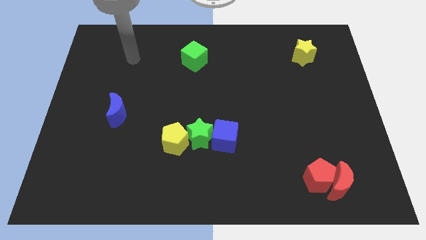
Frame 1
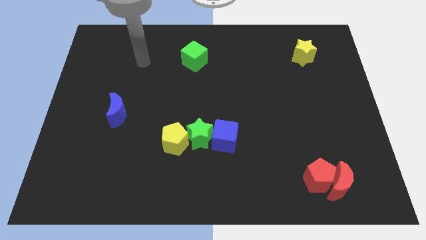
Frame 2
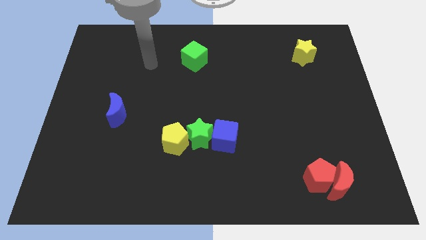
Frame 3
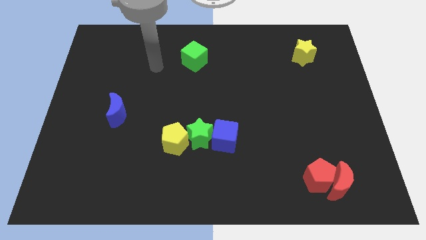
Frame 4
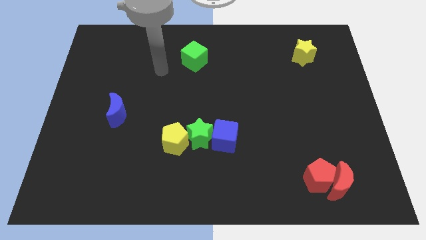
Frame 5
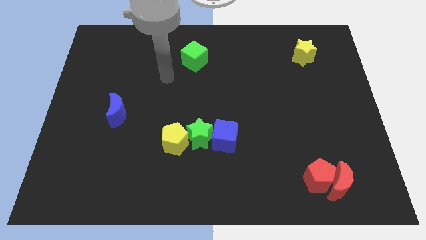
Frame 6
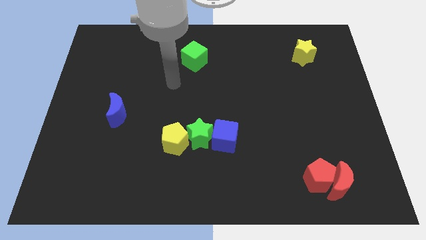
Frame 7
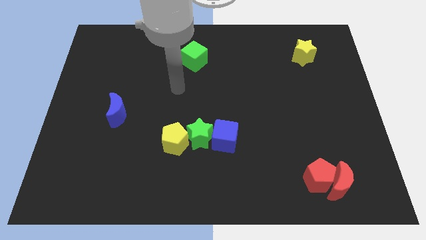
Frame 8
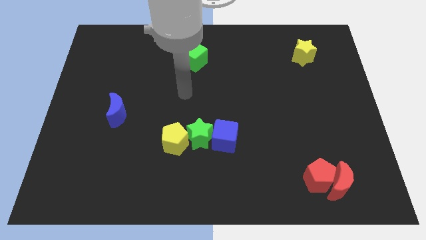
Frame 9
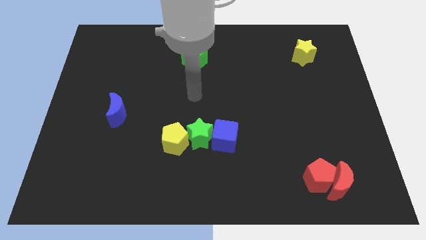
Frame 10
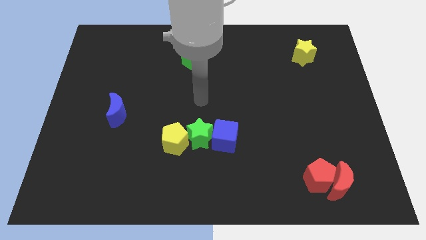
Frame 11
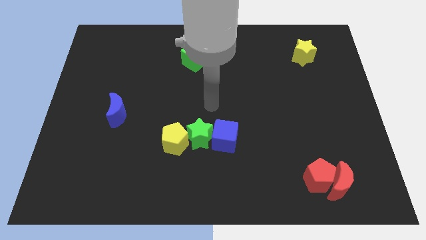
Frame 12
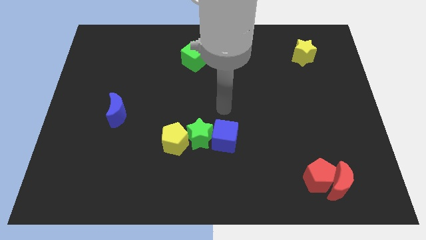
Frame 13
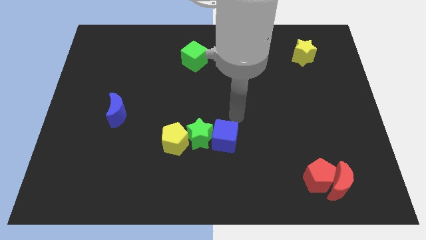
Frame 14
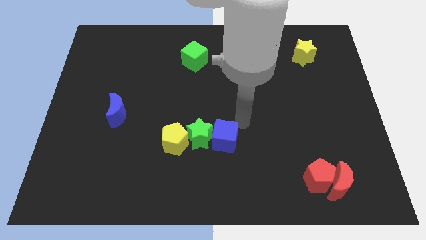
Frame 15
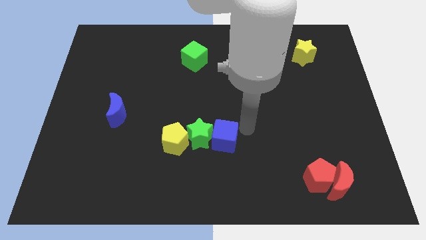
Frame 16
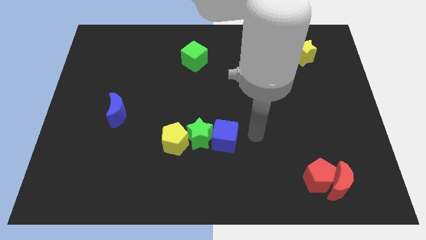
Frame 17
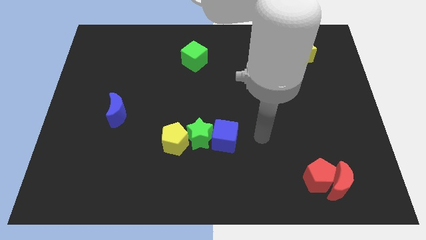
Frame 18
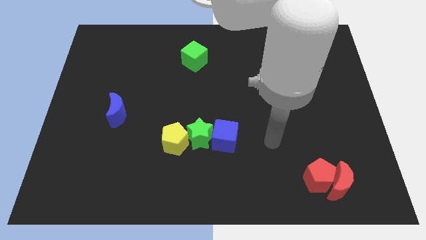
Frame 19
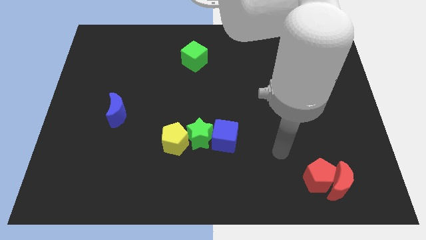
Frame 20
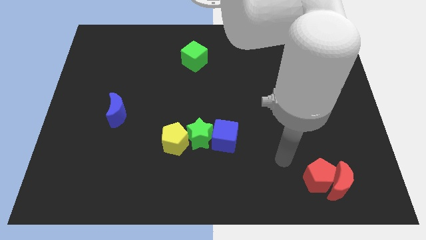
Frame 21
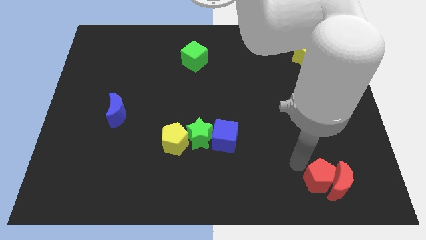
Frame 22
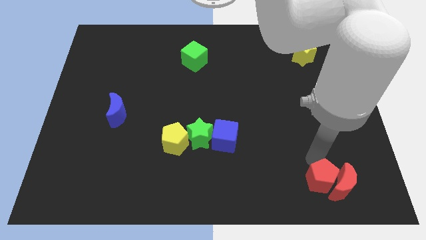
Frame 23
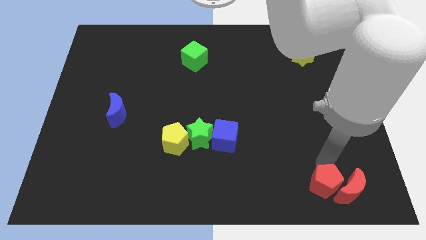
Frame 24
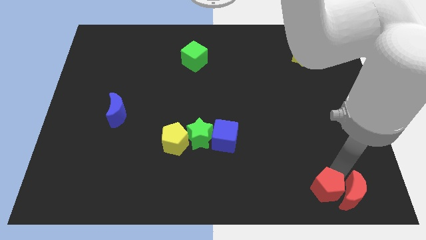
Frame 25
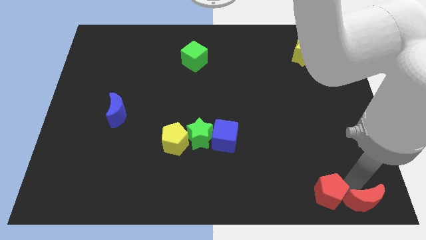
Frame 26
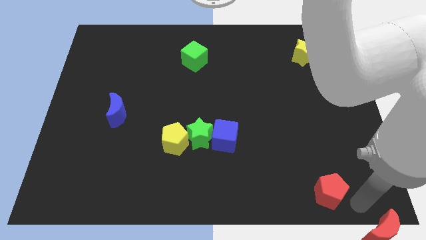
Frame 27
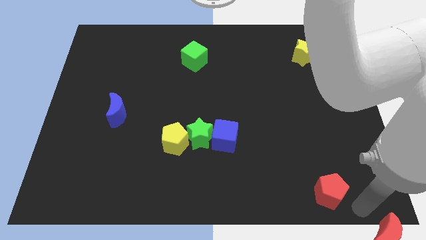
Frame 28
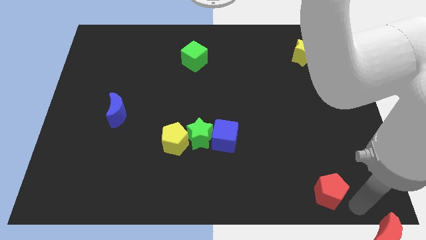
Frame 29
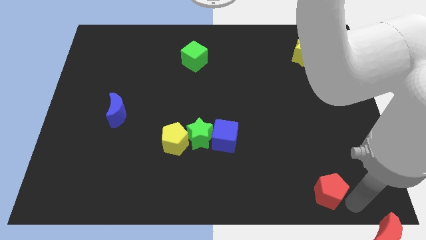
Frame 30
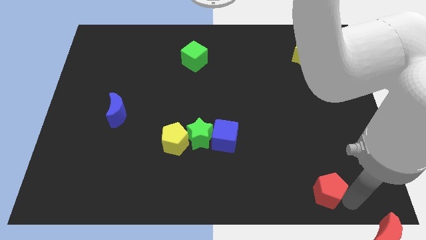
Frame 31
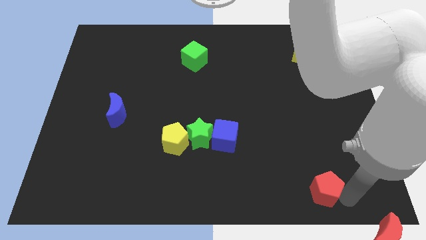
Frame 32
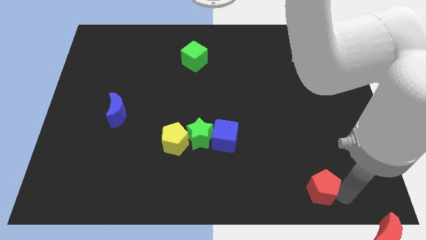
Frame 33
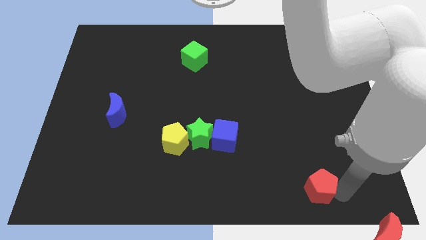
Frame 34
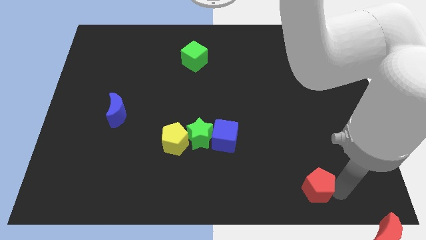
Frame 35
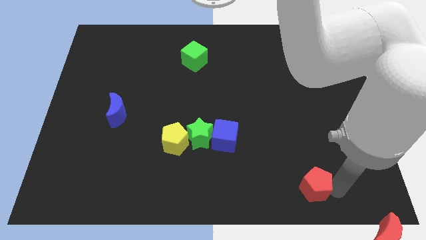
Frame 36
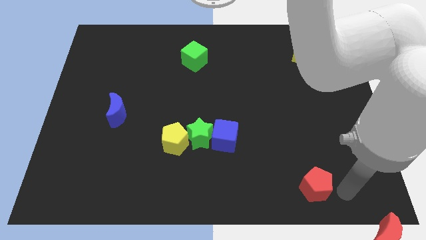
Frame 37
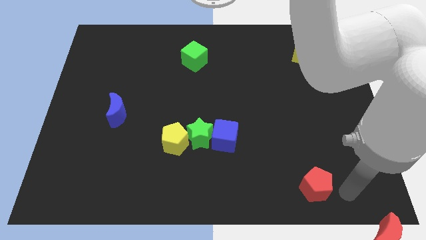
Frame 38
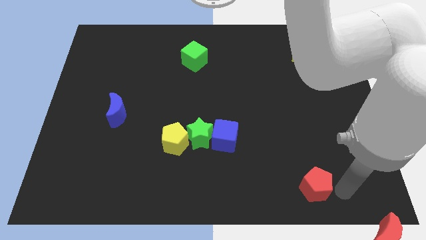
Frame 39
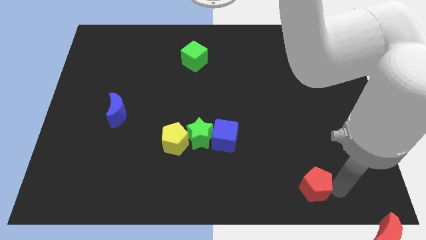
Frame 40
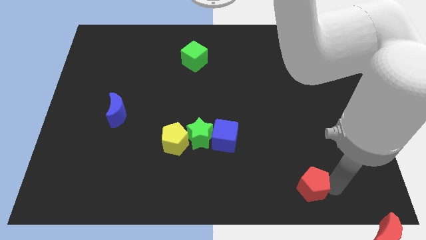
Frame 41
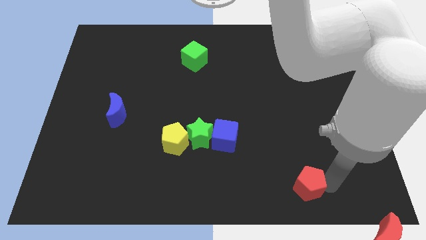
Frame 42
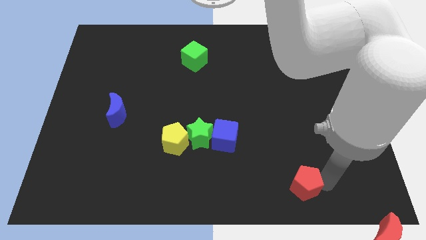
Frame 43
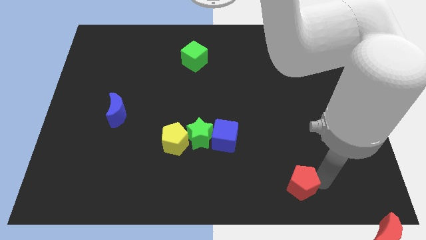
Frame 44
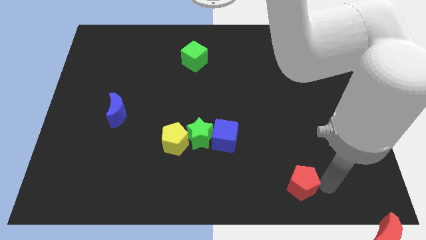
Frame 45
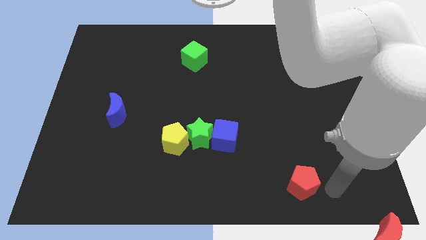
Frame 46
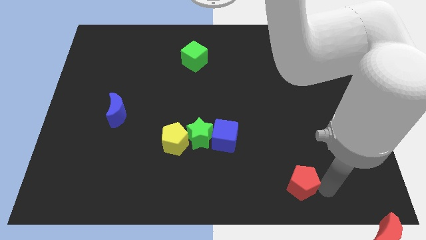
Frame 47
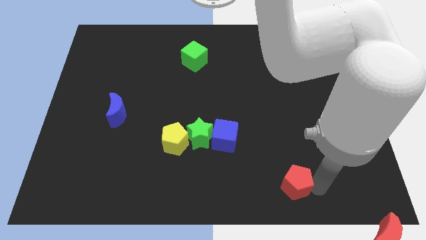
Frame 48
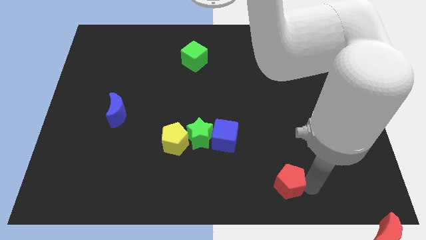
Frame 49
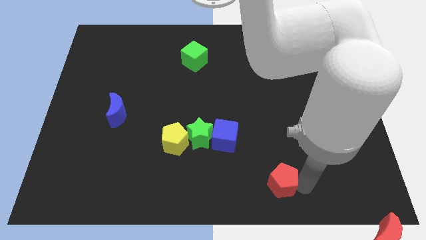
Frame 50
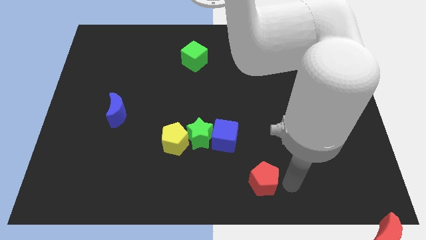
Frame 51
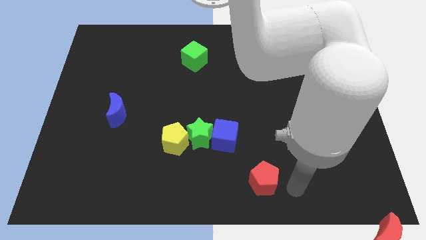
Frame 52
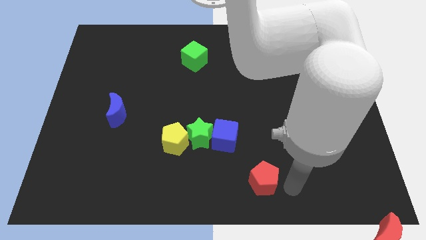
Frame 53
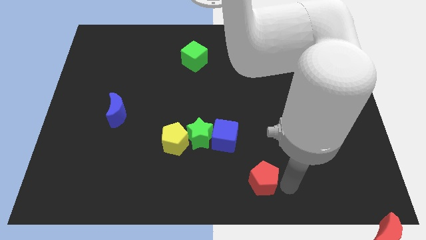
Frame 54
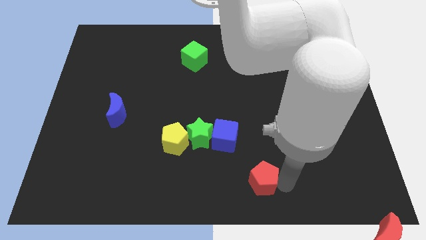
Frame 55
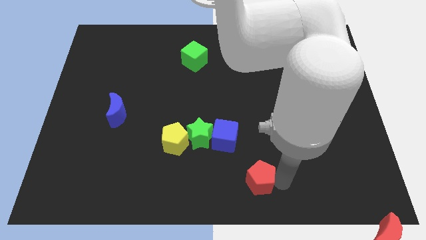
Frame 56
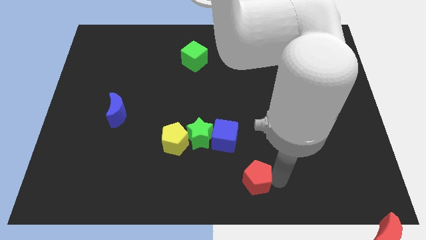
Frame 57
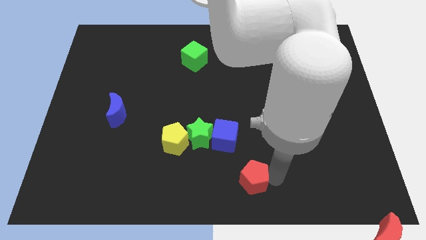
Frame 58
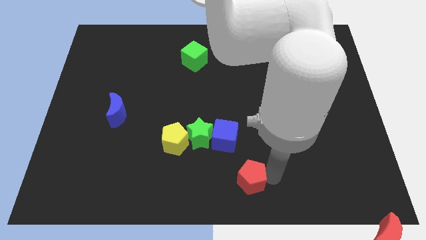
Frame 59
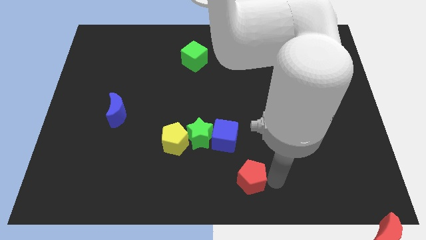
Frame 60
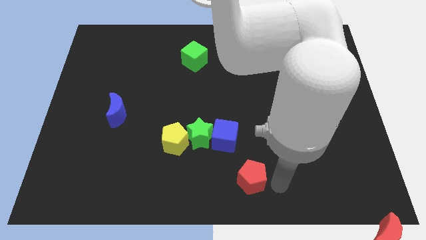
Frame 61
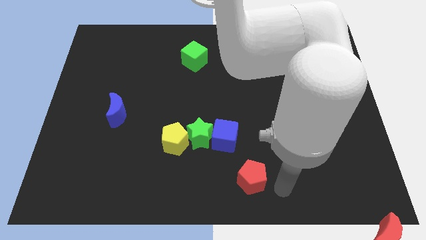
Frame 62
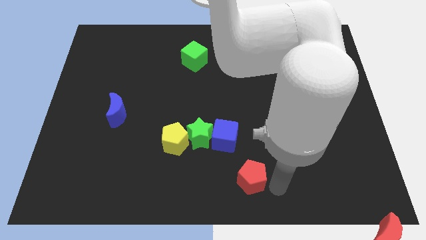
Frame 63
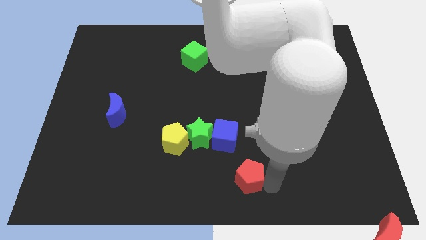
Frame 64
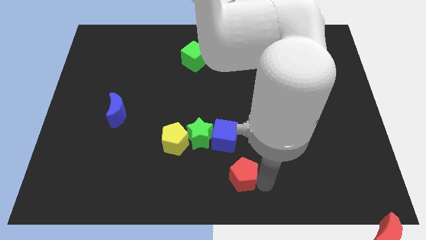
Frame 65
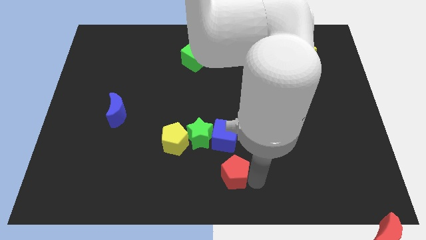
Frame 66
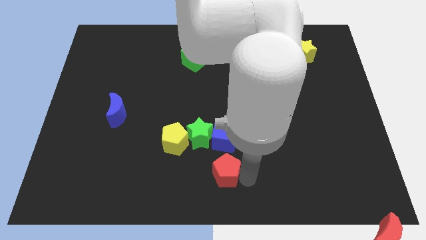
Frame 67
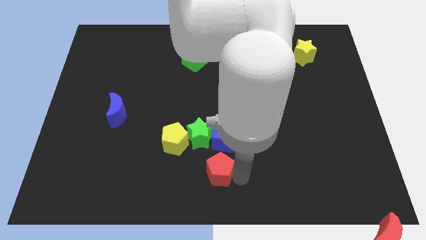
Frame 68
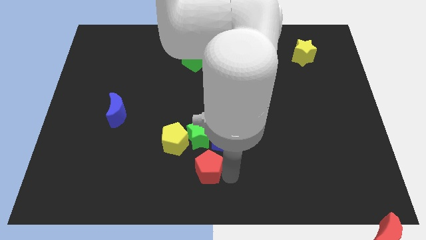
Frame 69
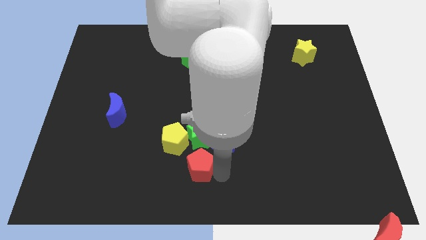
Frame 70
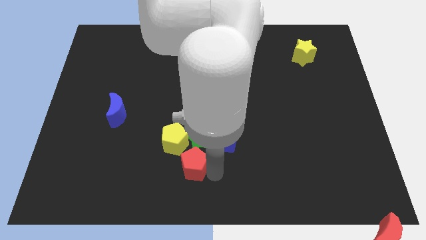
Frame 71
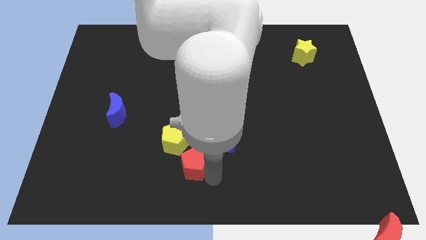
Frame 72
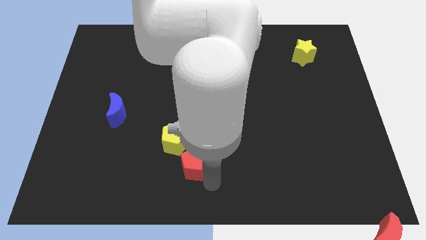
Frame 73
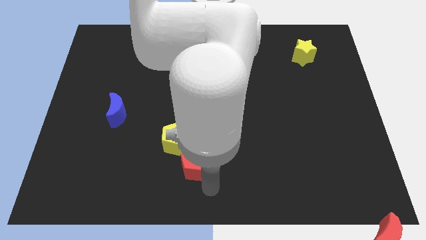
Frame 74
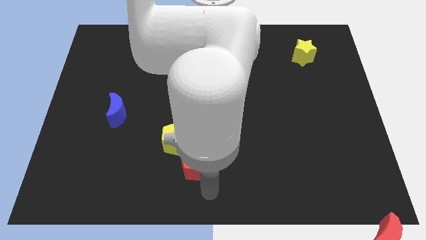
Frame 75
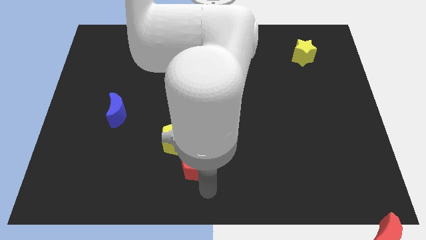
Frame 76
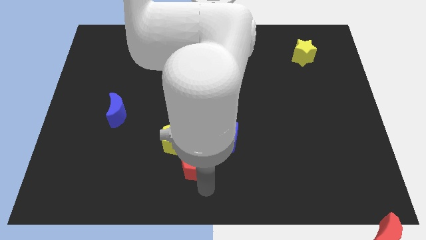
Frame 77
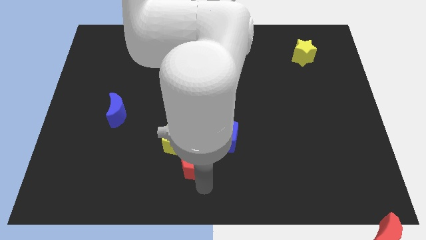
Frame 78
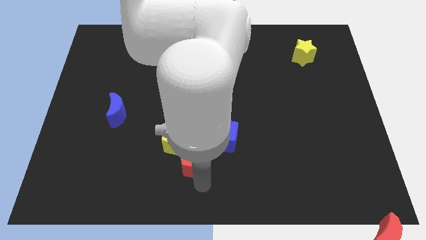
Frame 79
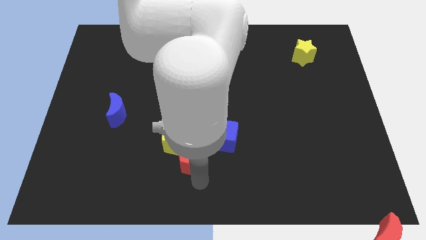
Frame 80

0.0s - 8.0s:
put the red pentagon next to the yellow pentagon
